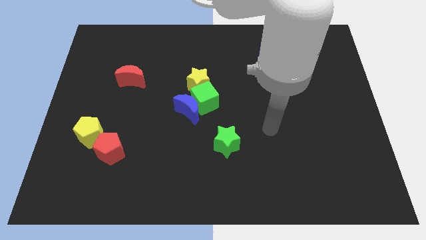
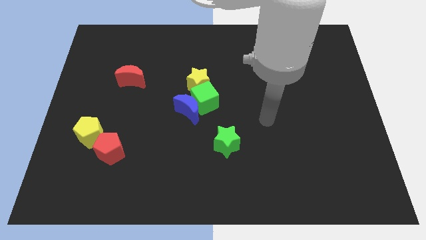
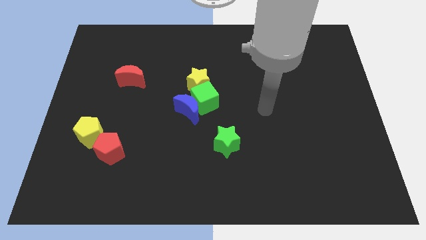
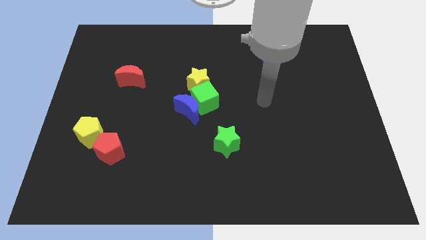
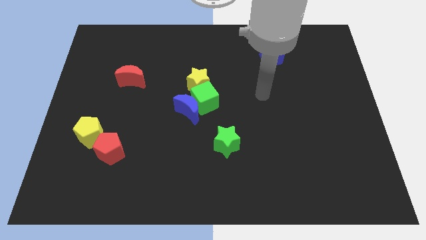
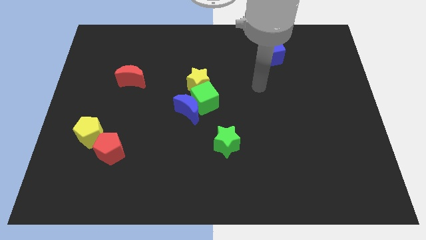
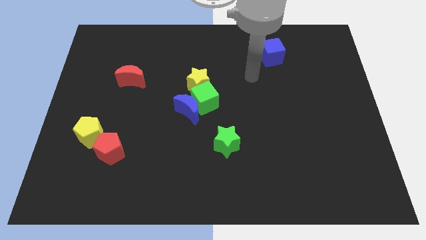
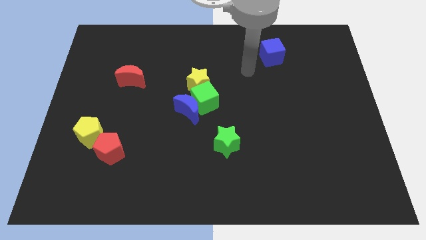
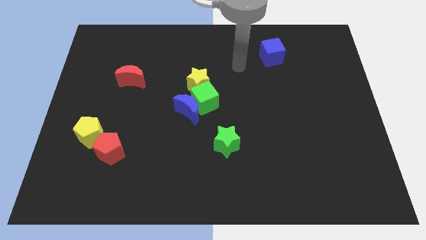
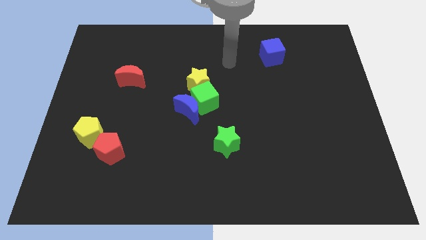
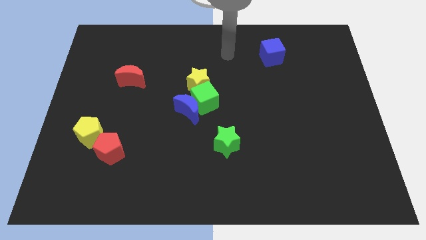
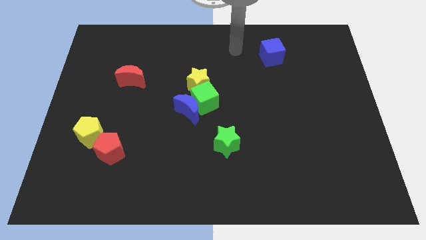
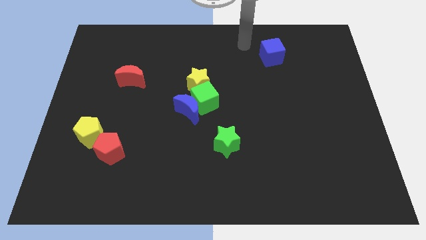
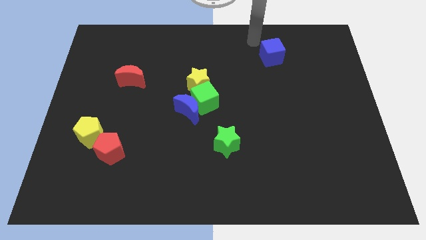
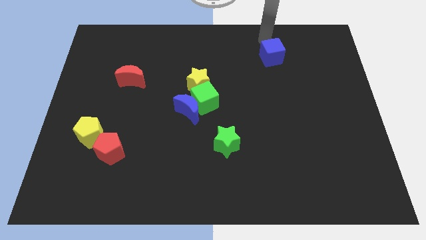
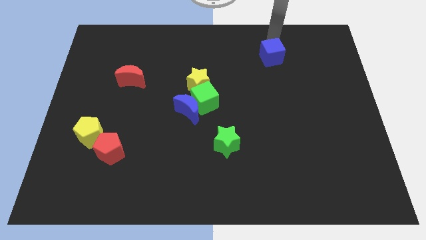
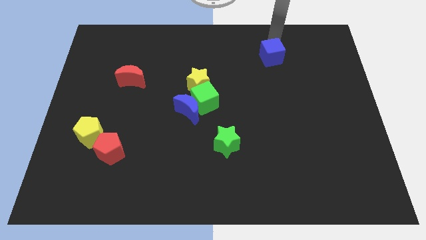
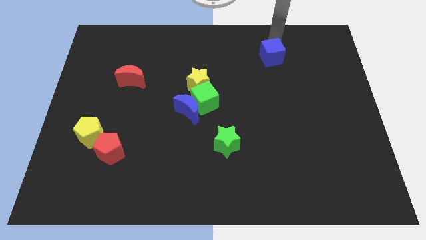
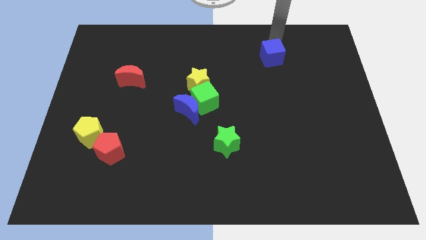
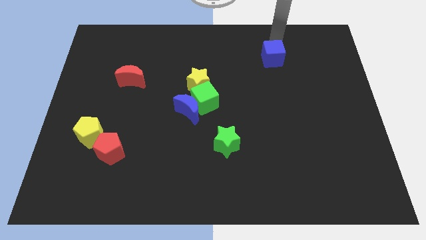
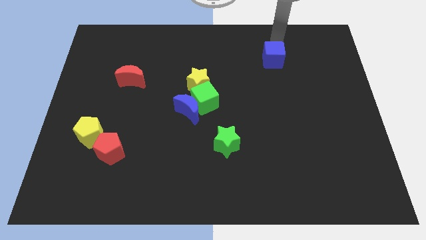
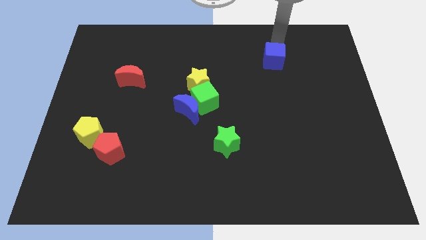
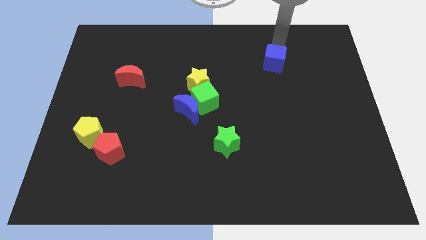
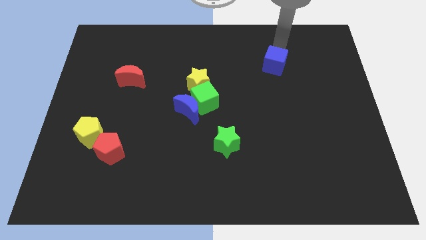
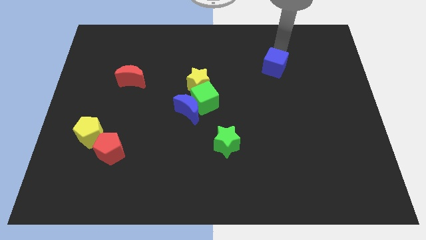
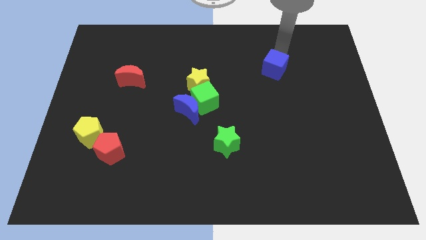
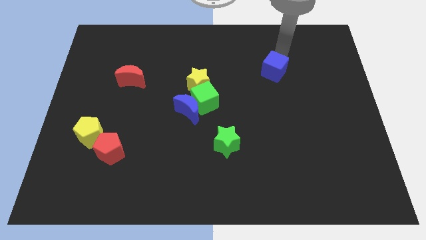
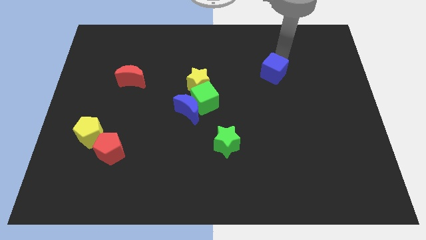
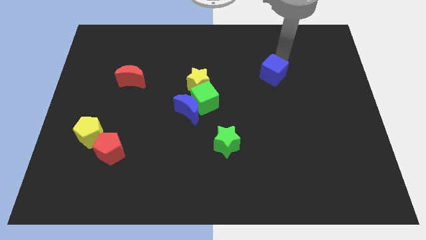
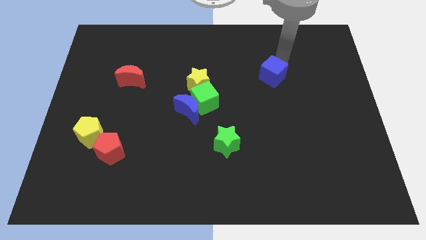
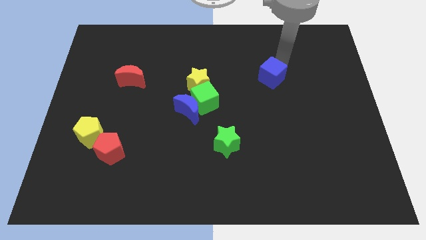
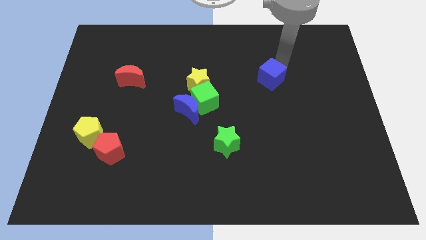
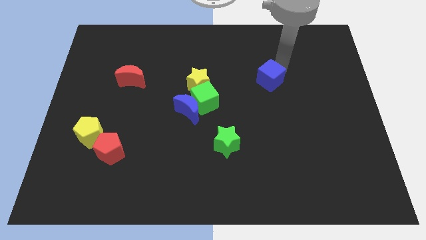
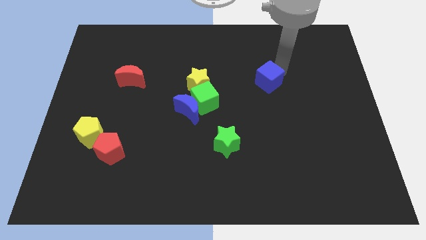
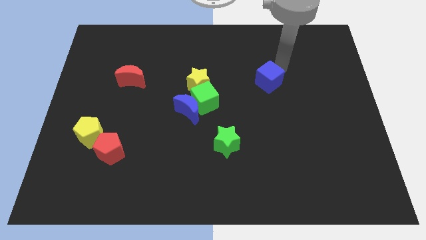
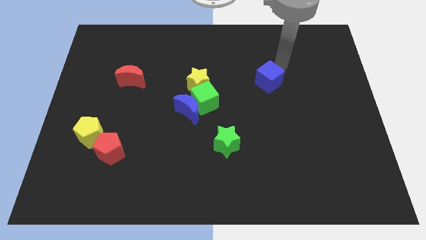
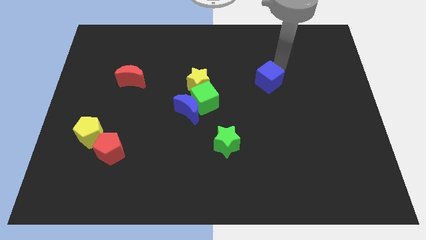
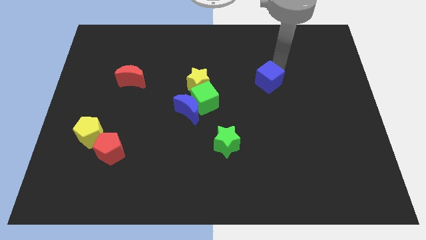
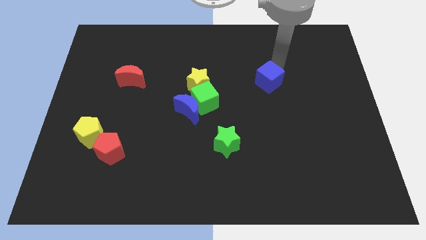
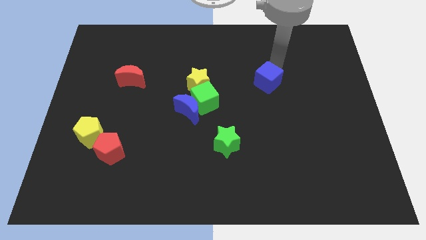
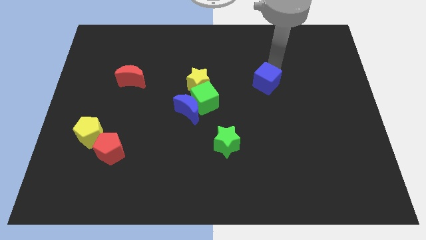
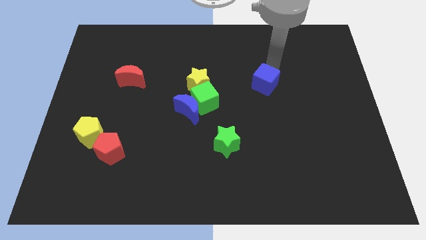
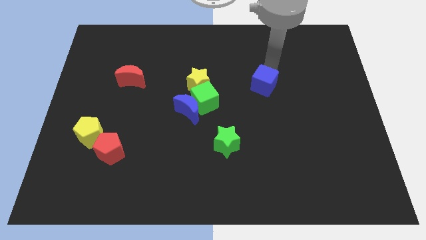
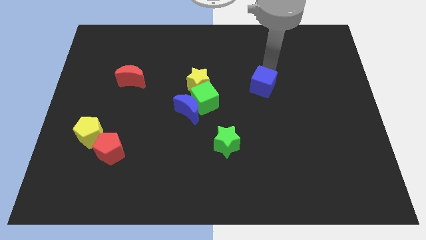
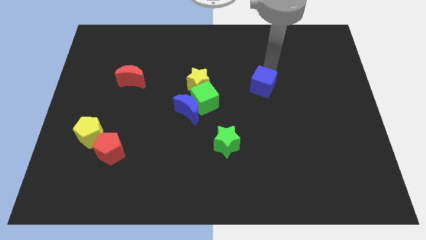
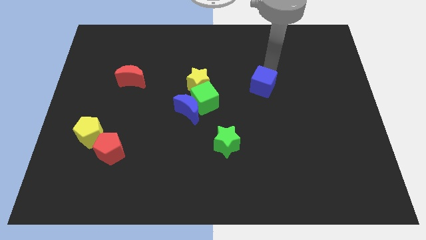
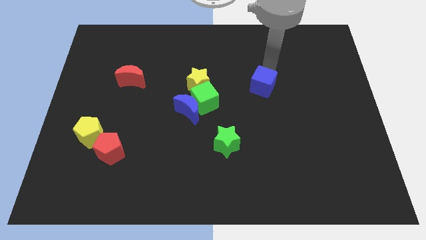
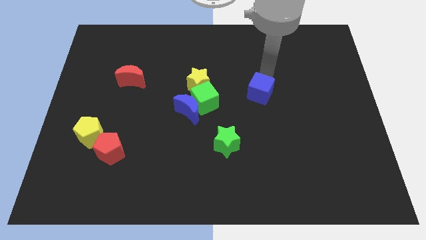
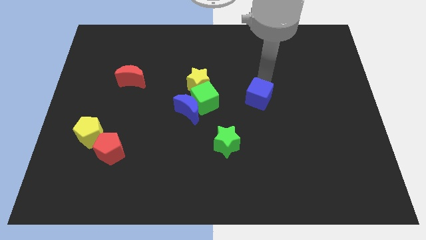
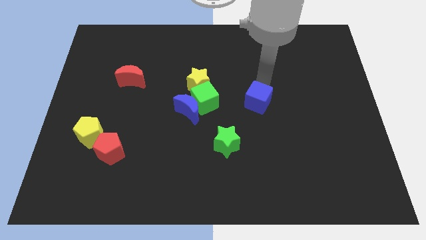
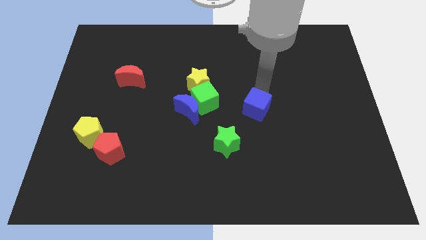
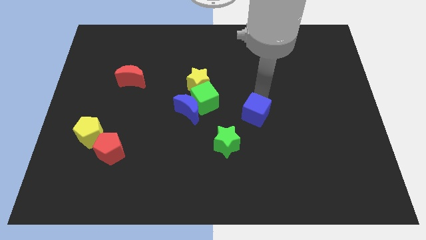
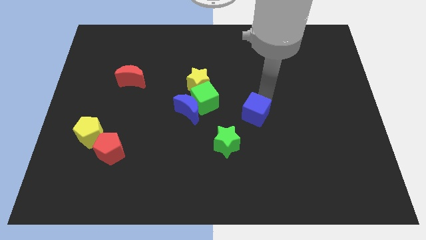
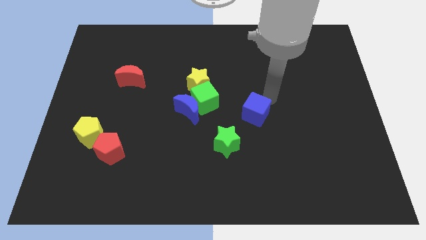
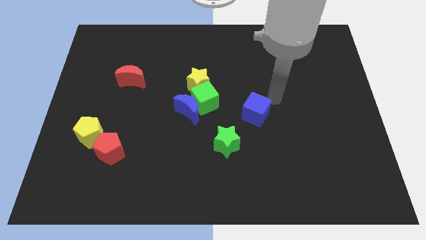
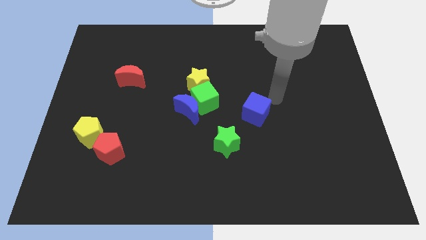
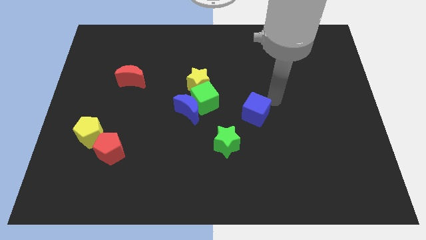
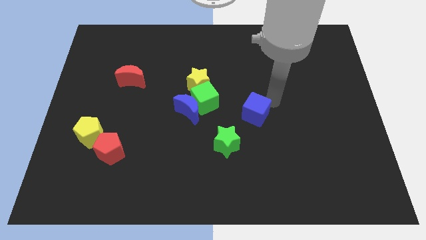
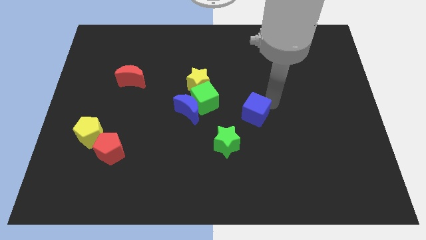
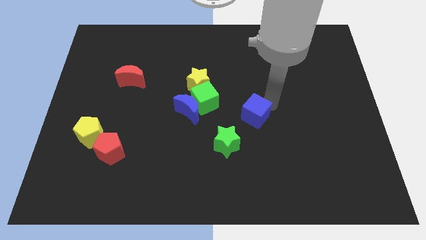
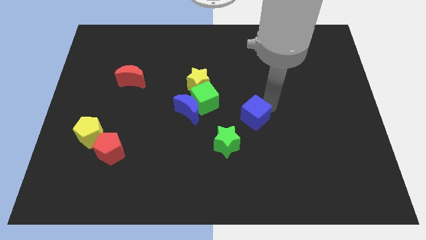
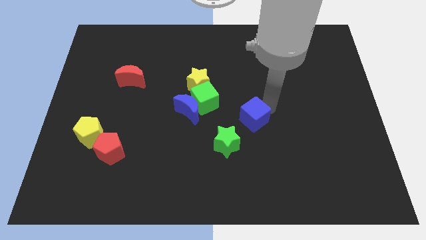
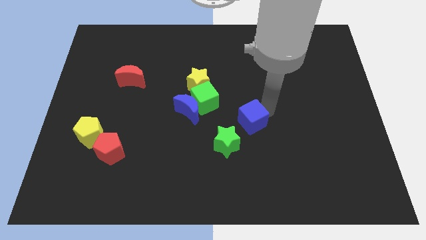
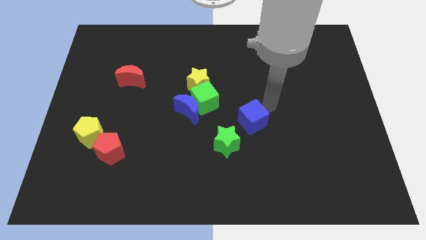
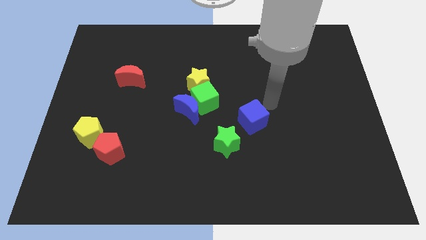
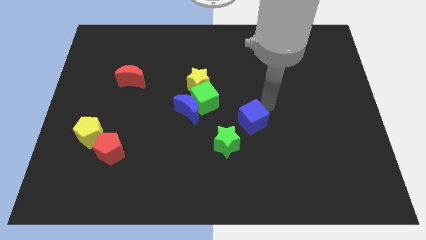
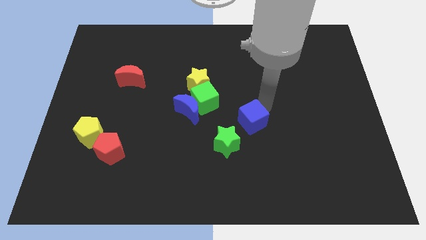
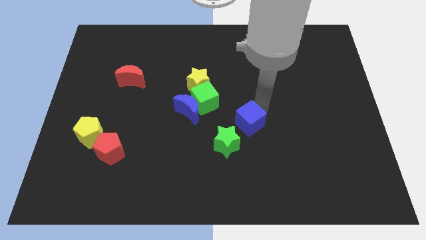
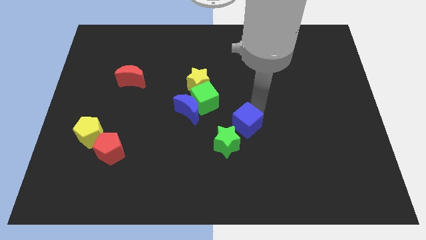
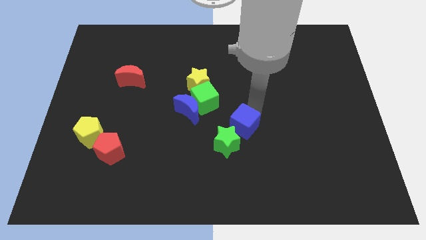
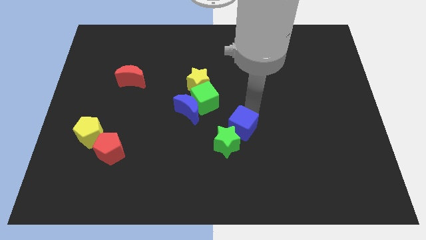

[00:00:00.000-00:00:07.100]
put the blue cube close to the green star
